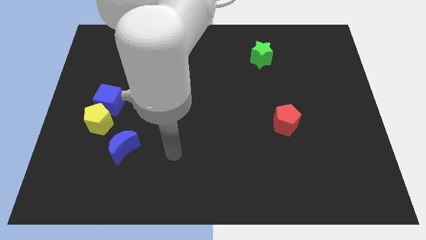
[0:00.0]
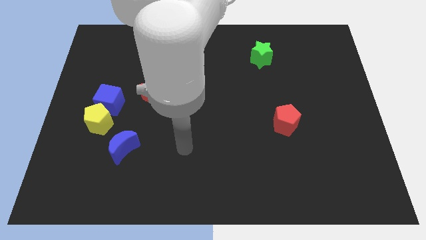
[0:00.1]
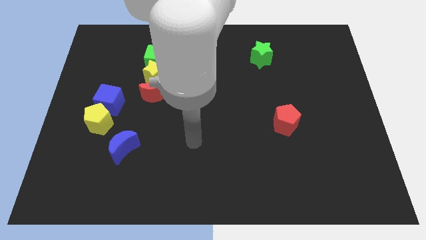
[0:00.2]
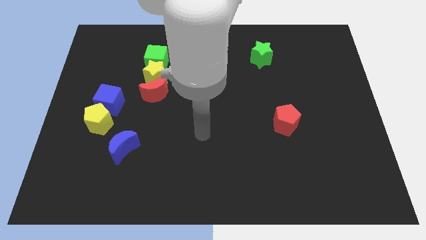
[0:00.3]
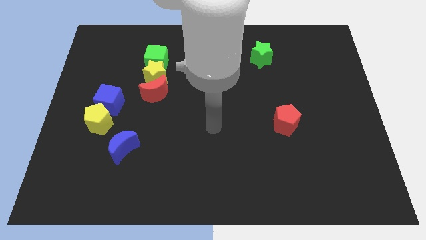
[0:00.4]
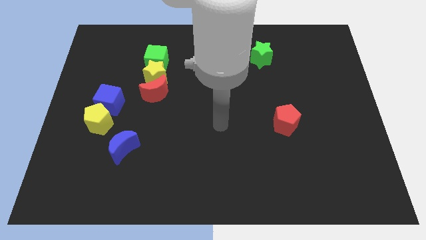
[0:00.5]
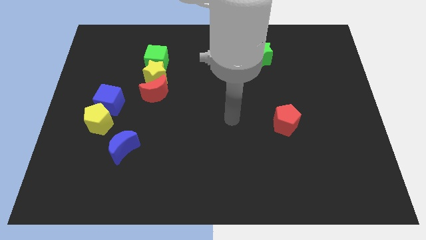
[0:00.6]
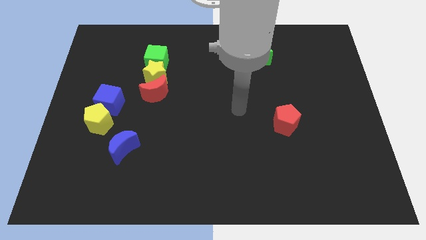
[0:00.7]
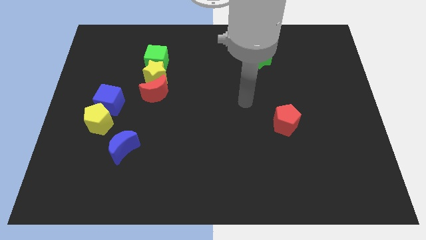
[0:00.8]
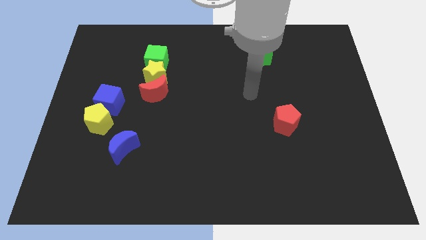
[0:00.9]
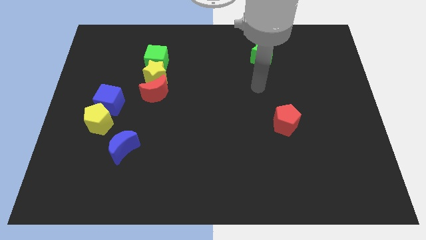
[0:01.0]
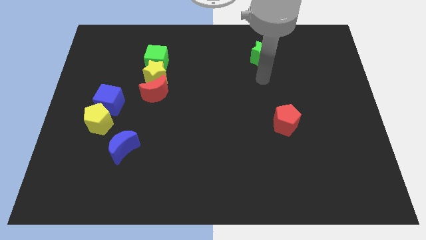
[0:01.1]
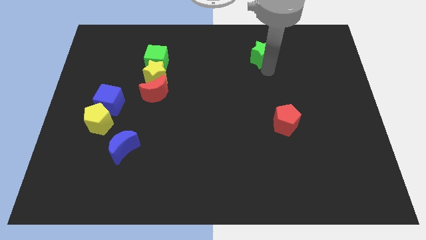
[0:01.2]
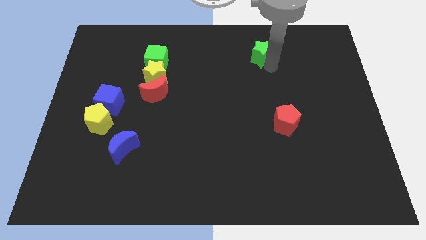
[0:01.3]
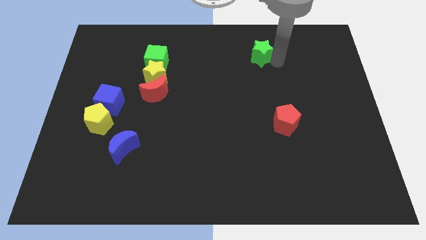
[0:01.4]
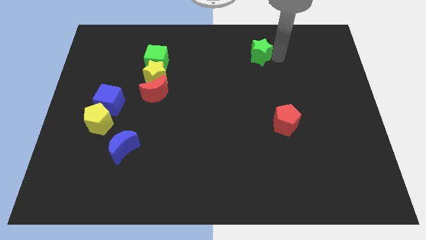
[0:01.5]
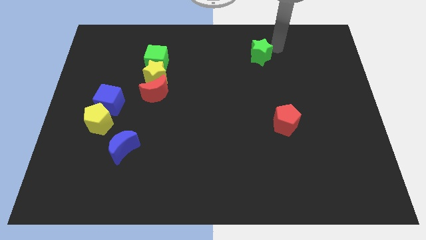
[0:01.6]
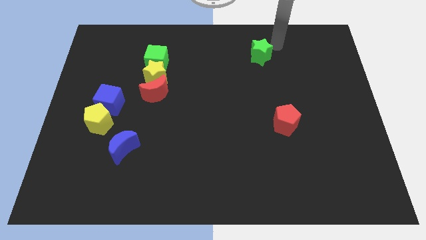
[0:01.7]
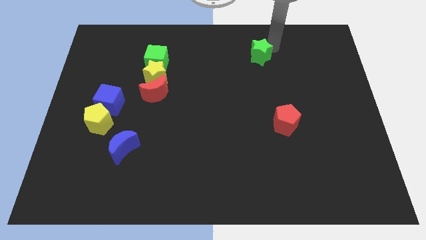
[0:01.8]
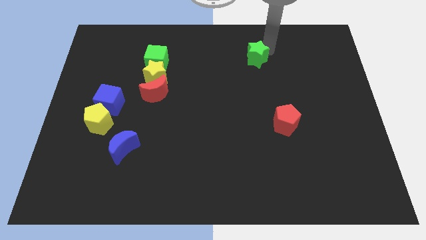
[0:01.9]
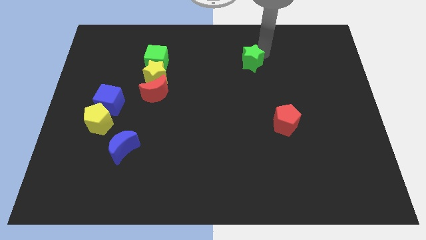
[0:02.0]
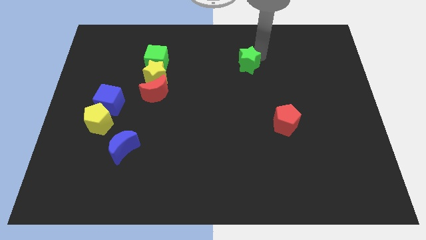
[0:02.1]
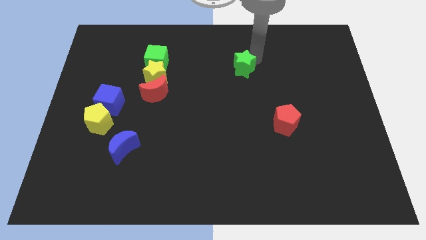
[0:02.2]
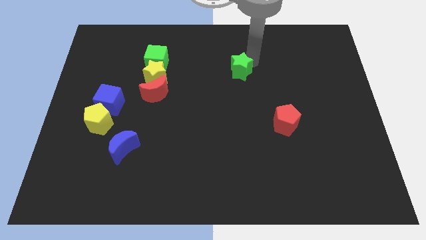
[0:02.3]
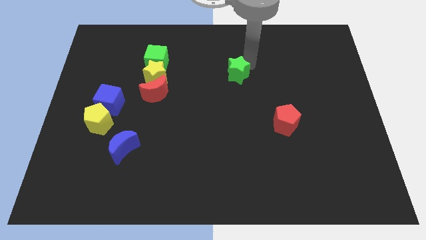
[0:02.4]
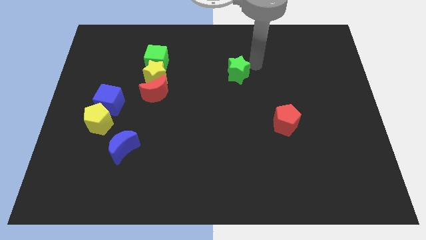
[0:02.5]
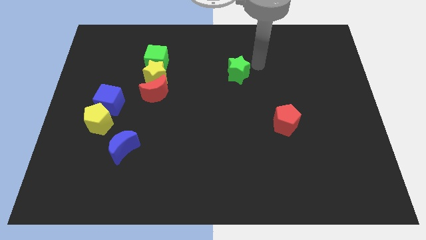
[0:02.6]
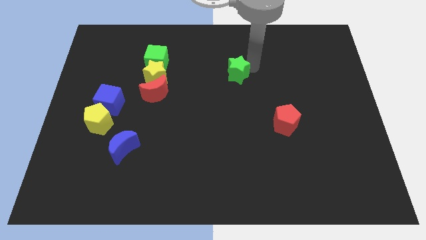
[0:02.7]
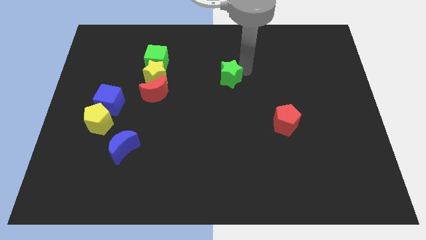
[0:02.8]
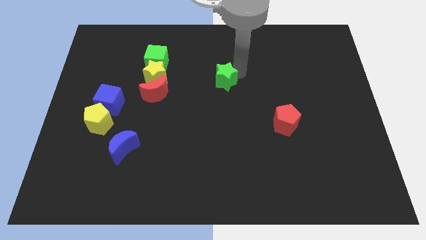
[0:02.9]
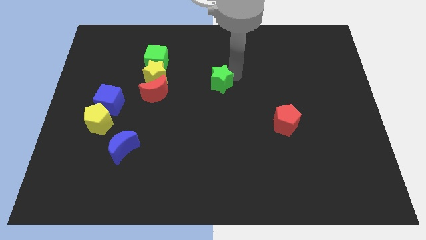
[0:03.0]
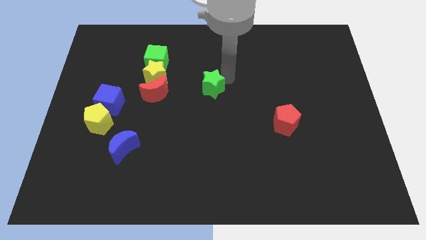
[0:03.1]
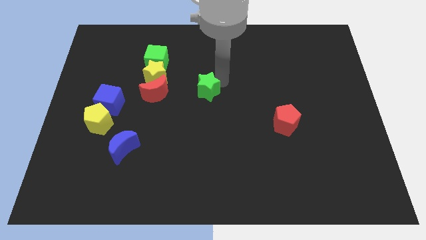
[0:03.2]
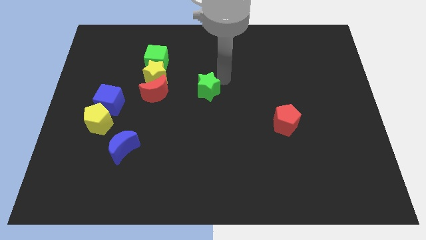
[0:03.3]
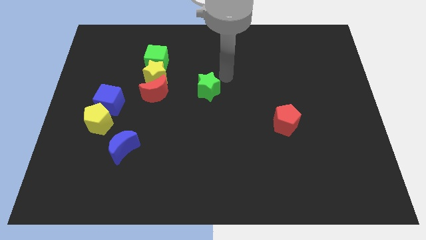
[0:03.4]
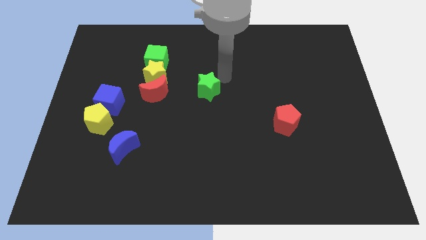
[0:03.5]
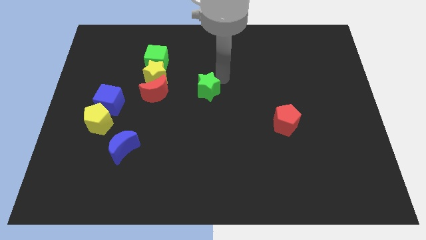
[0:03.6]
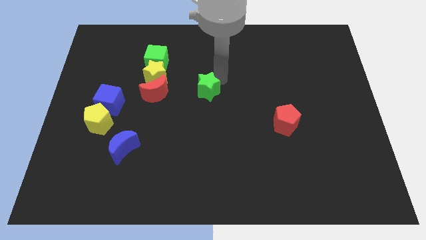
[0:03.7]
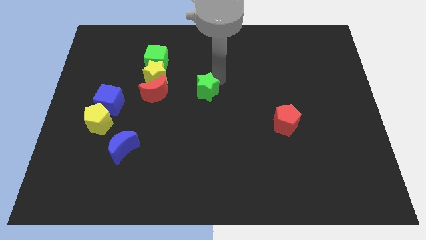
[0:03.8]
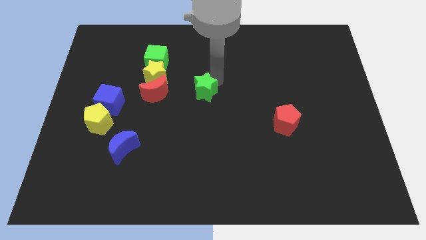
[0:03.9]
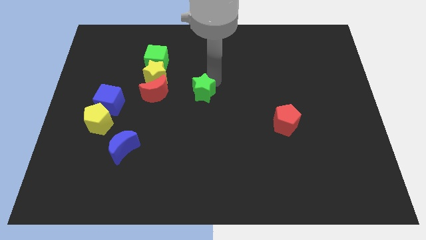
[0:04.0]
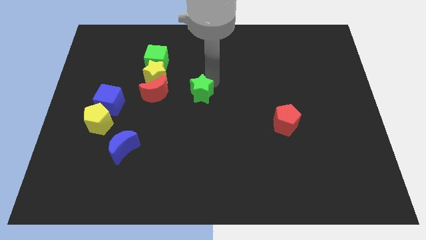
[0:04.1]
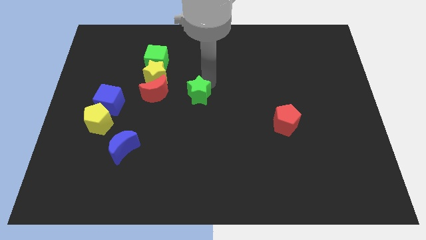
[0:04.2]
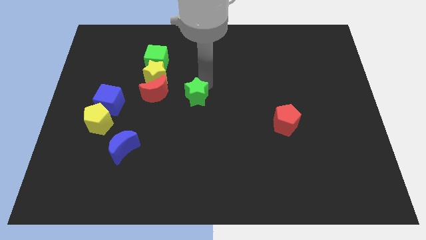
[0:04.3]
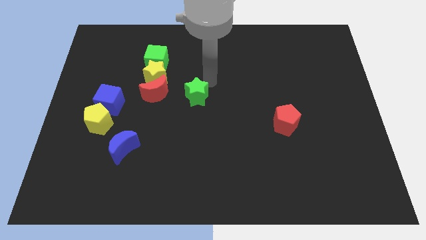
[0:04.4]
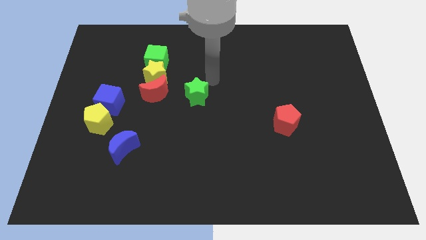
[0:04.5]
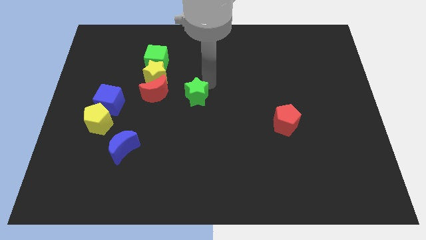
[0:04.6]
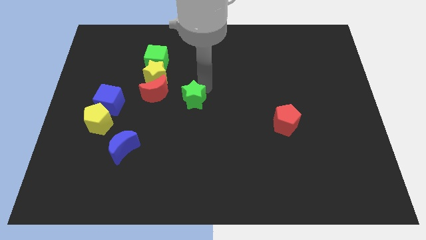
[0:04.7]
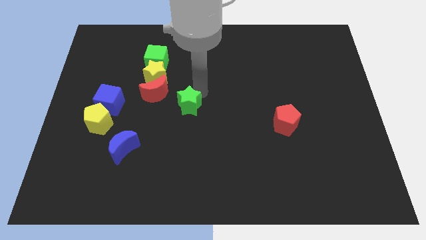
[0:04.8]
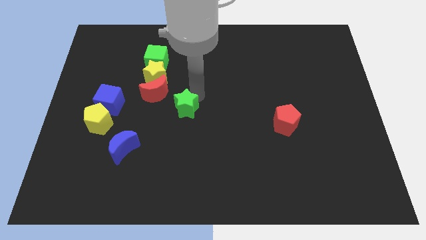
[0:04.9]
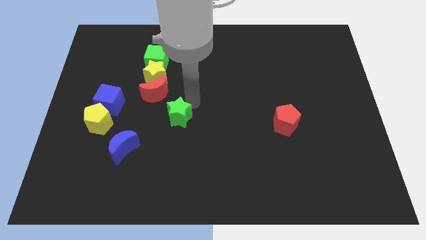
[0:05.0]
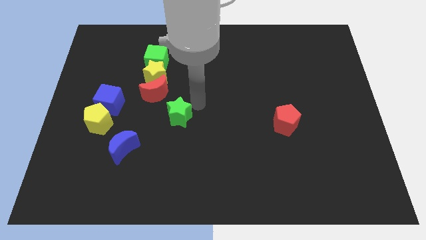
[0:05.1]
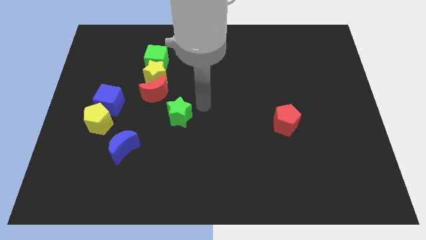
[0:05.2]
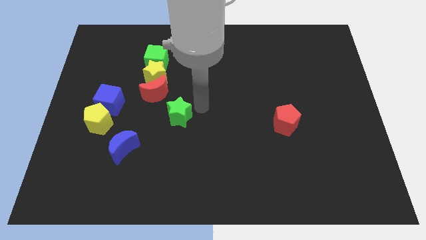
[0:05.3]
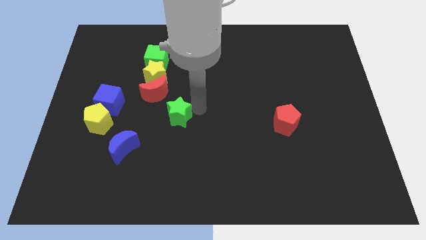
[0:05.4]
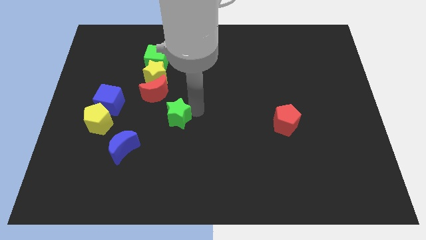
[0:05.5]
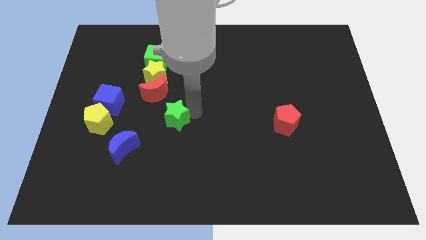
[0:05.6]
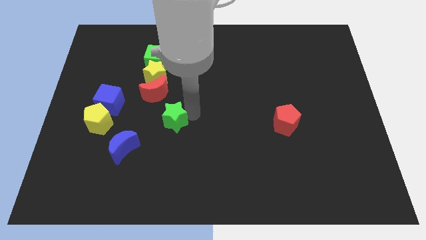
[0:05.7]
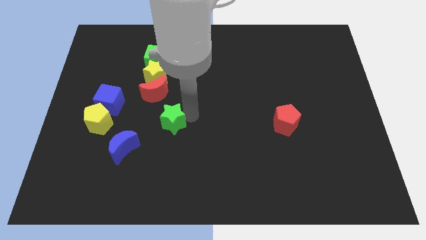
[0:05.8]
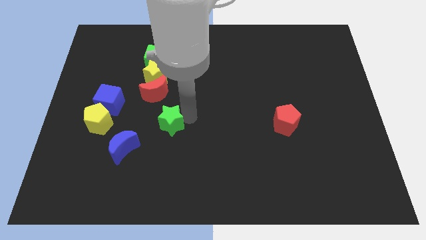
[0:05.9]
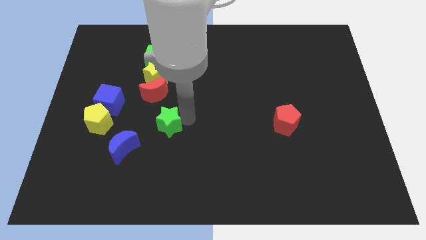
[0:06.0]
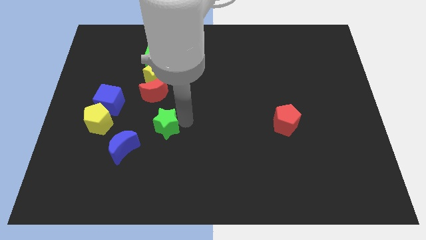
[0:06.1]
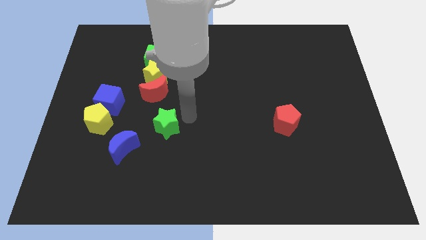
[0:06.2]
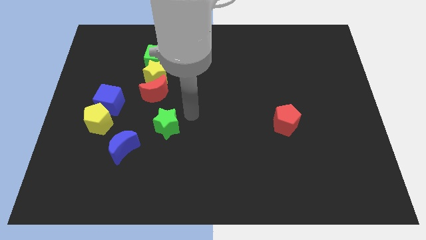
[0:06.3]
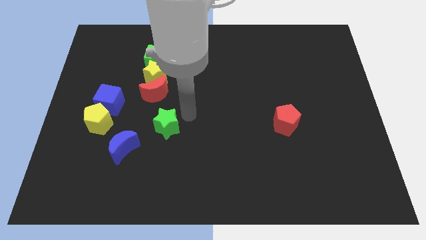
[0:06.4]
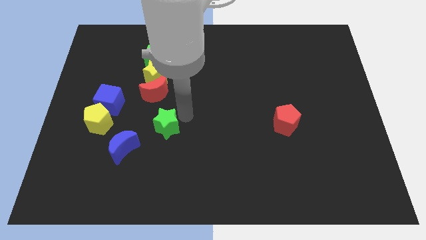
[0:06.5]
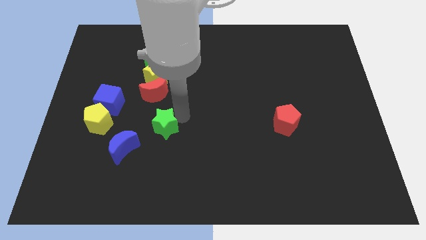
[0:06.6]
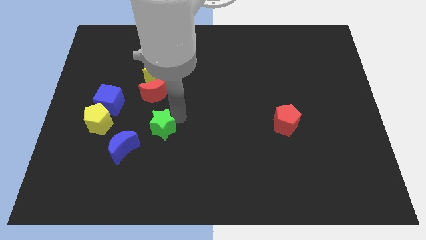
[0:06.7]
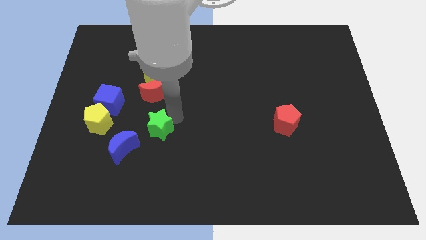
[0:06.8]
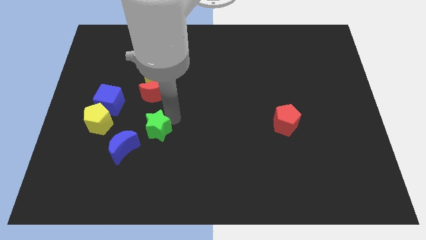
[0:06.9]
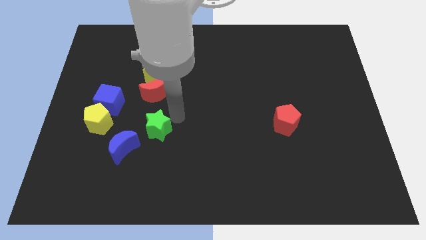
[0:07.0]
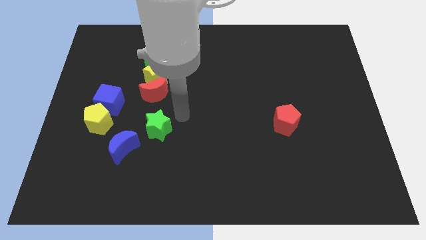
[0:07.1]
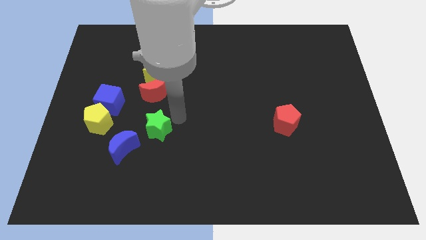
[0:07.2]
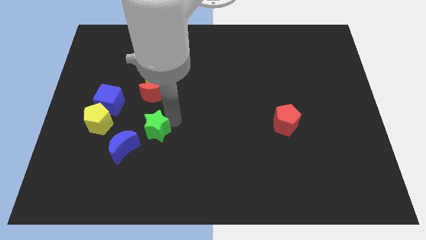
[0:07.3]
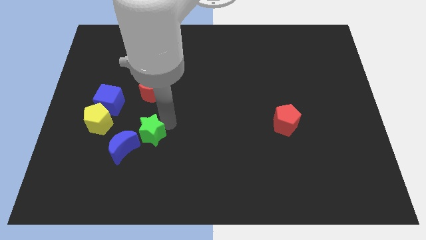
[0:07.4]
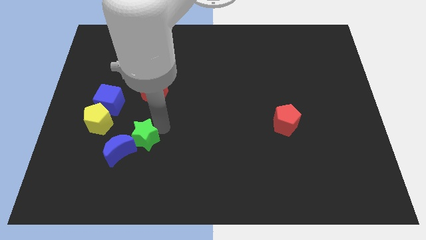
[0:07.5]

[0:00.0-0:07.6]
move the green star towards the blue moon

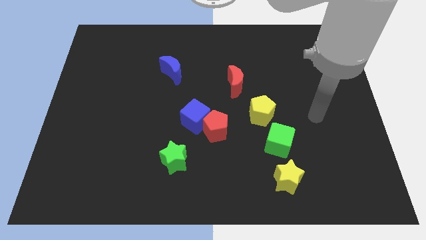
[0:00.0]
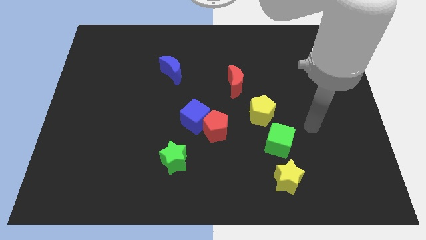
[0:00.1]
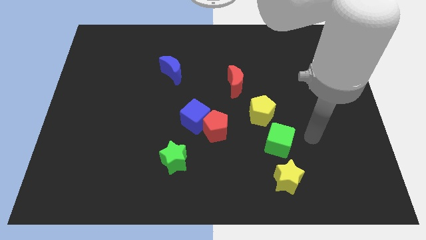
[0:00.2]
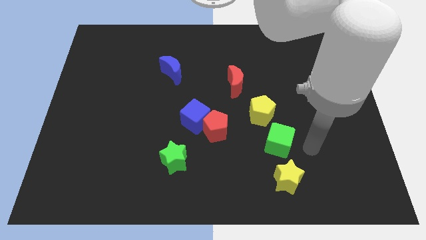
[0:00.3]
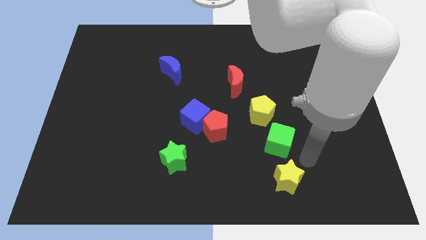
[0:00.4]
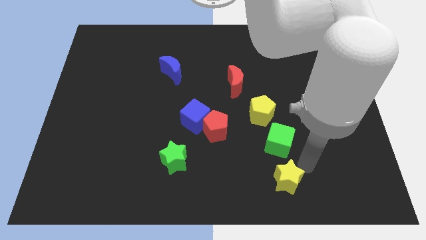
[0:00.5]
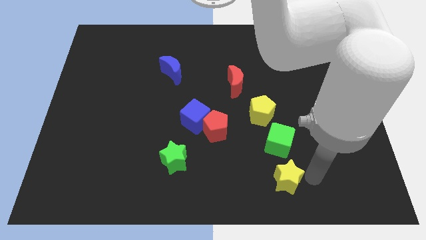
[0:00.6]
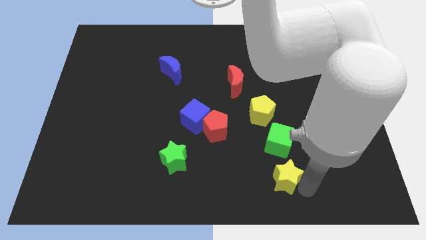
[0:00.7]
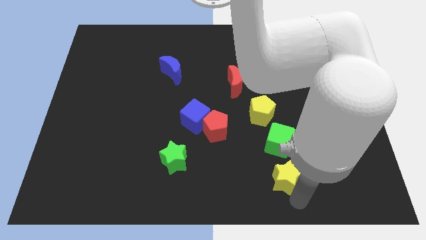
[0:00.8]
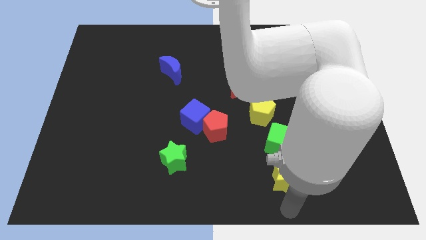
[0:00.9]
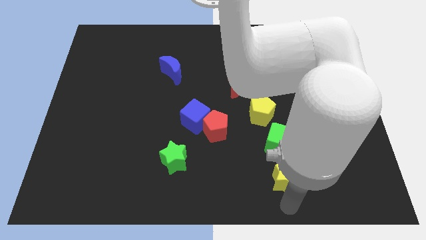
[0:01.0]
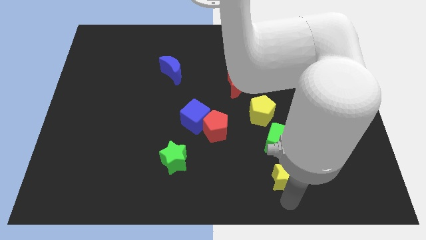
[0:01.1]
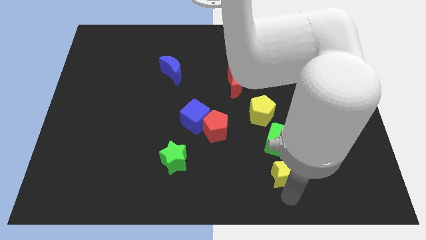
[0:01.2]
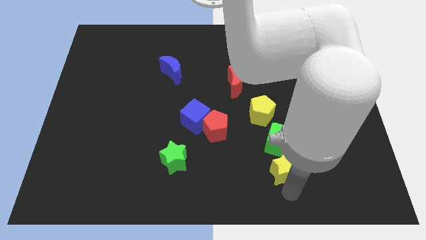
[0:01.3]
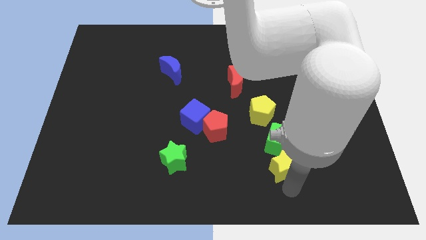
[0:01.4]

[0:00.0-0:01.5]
put the yellow star towards the green cube
